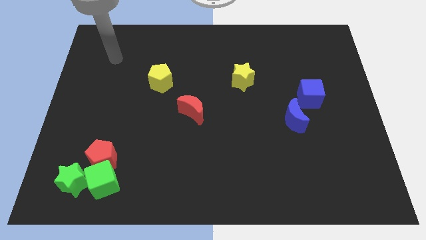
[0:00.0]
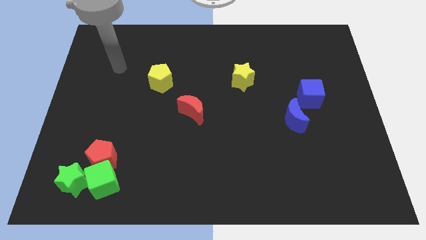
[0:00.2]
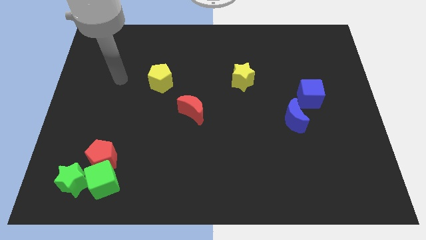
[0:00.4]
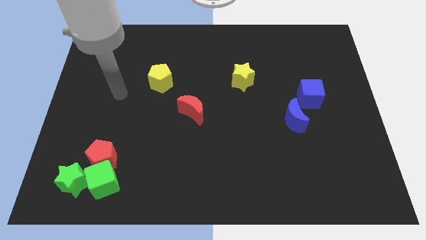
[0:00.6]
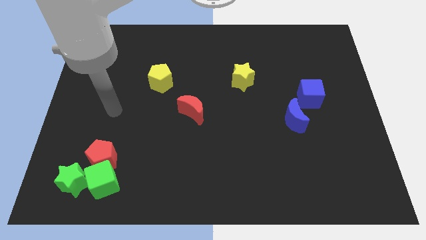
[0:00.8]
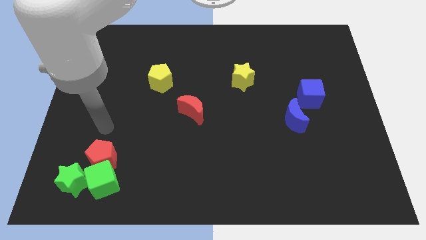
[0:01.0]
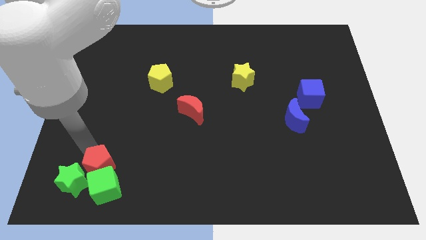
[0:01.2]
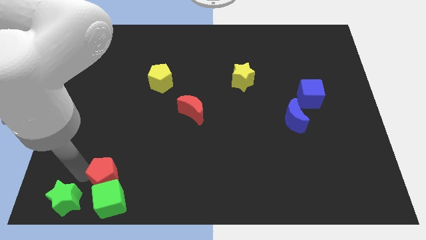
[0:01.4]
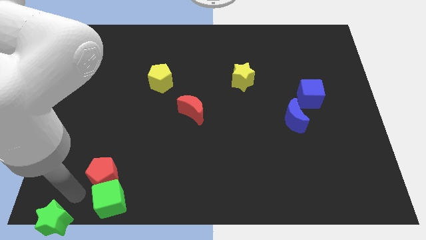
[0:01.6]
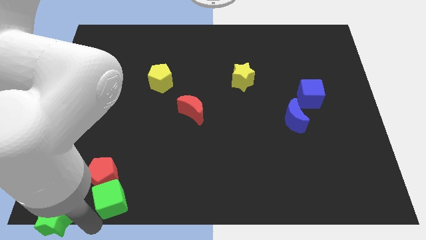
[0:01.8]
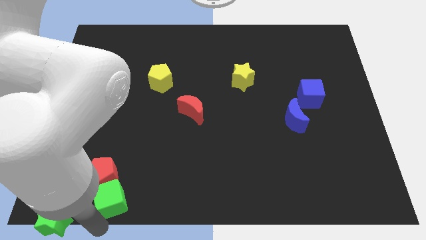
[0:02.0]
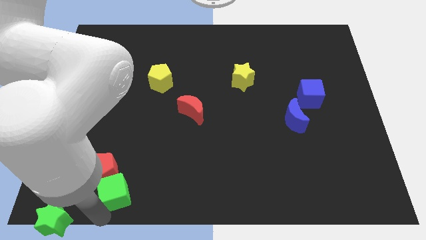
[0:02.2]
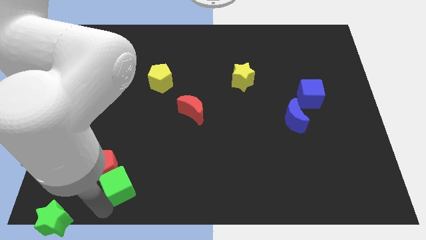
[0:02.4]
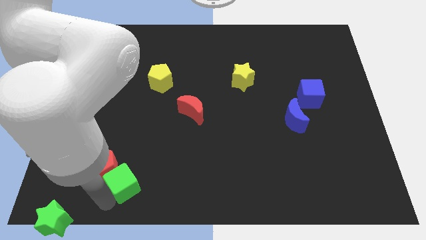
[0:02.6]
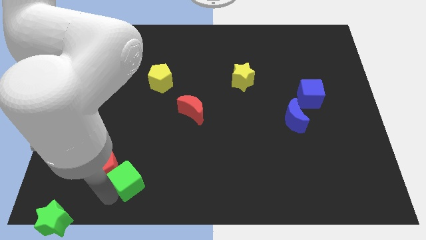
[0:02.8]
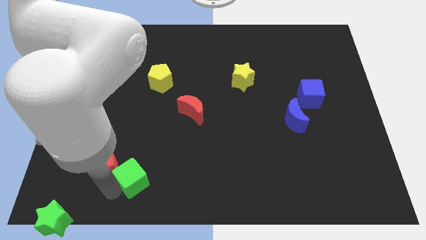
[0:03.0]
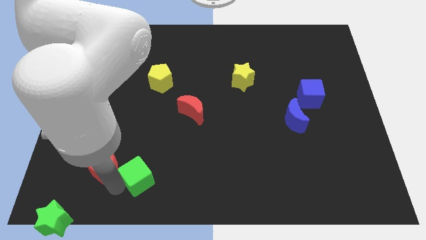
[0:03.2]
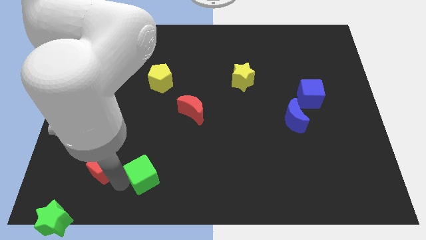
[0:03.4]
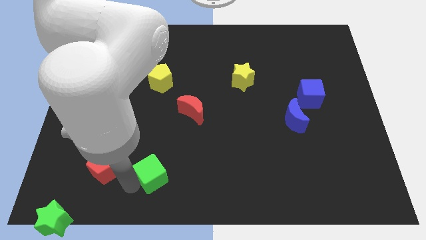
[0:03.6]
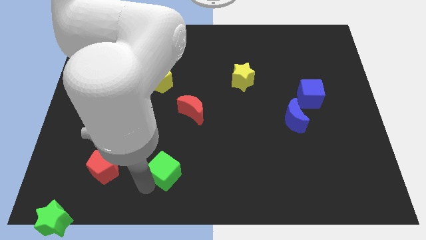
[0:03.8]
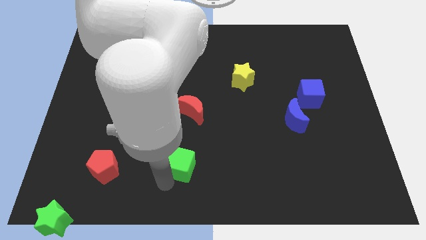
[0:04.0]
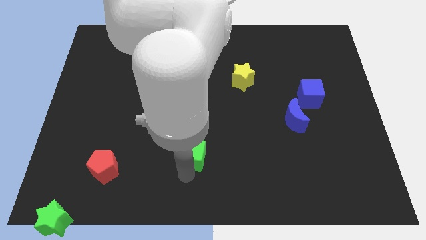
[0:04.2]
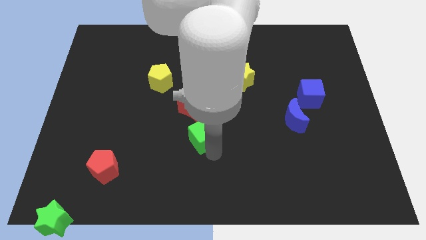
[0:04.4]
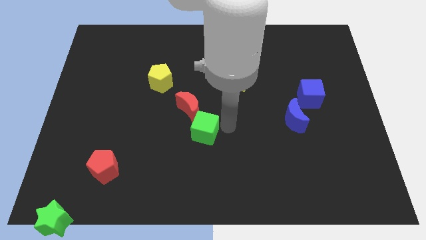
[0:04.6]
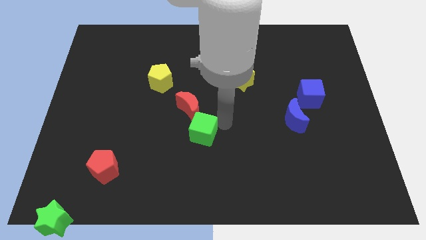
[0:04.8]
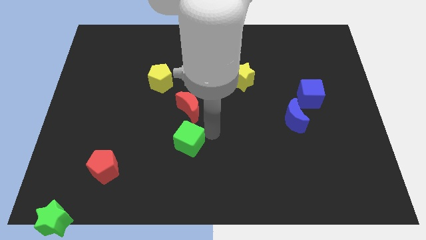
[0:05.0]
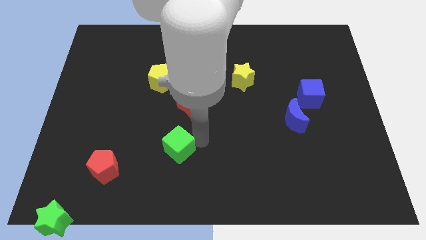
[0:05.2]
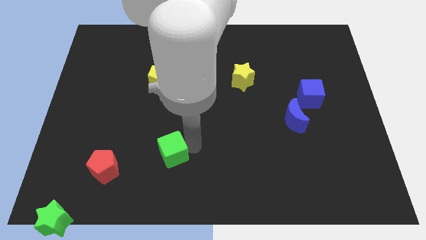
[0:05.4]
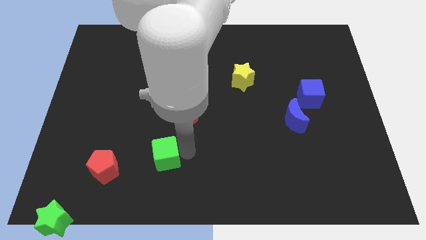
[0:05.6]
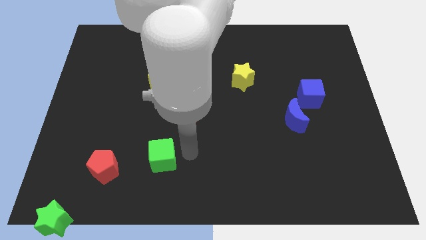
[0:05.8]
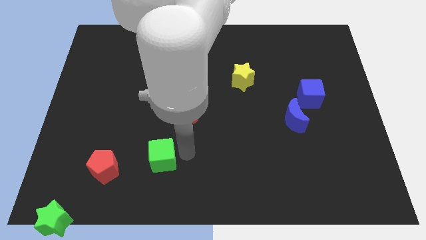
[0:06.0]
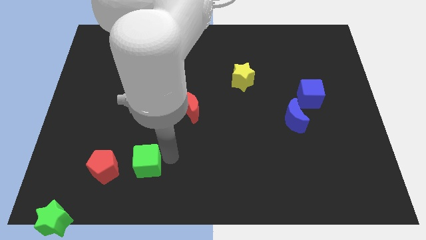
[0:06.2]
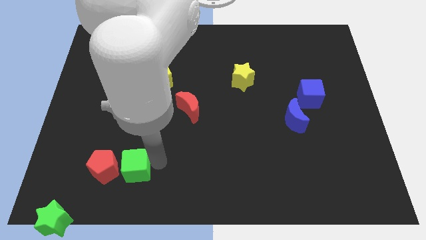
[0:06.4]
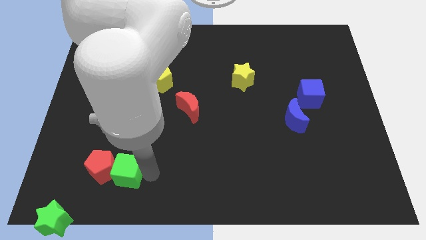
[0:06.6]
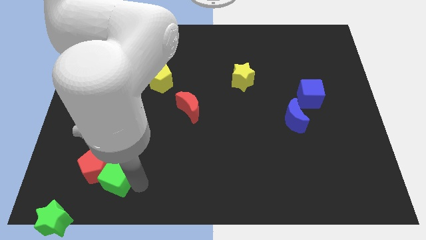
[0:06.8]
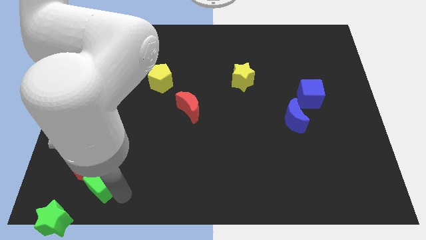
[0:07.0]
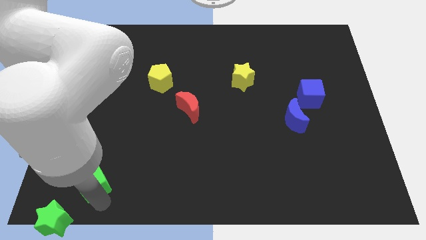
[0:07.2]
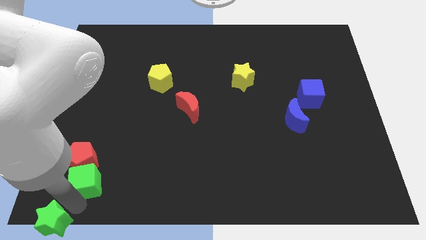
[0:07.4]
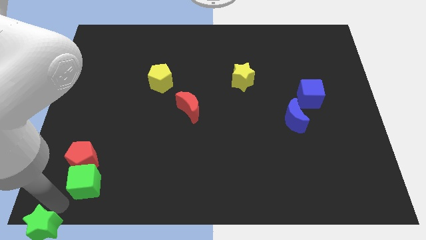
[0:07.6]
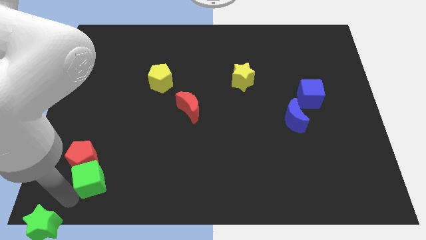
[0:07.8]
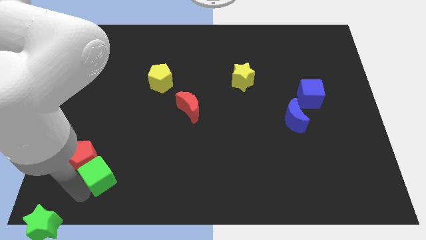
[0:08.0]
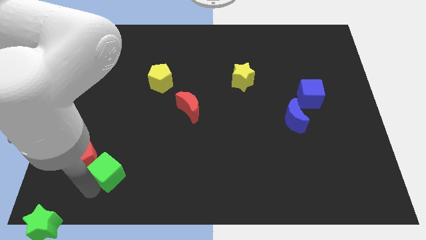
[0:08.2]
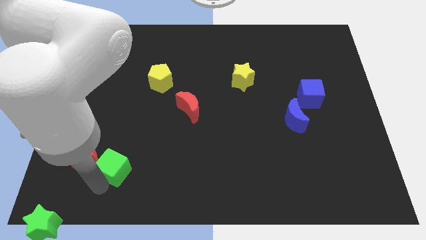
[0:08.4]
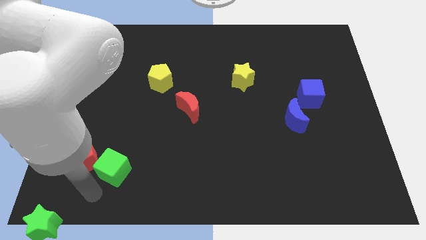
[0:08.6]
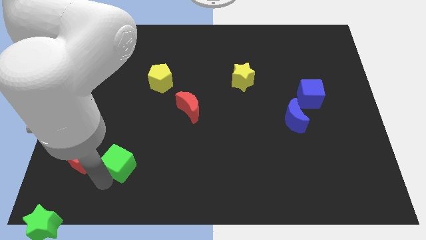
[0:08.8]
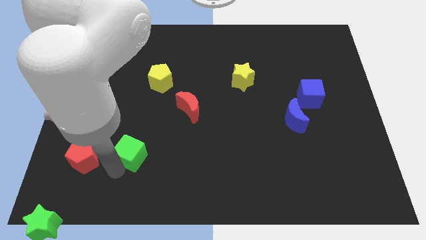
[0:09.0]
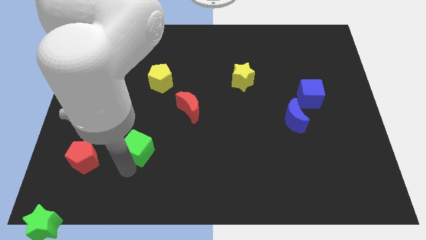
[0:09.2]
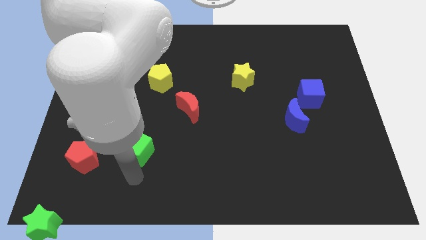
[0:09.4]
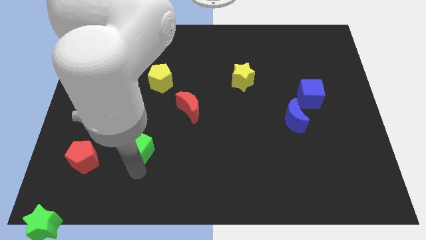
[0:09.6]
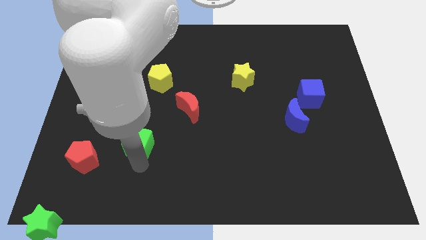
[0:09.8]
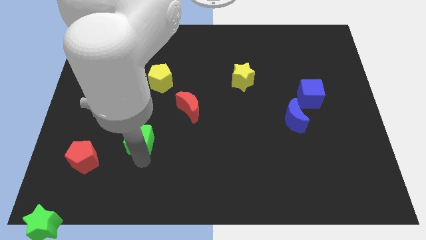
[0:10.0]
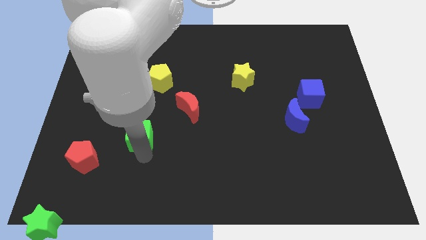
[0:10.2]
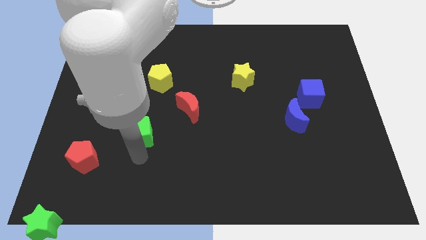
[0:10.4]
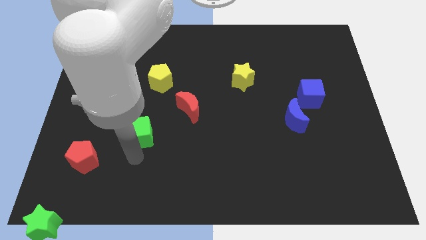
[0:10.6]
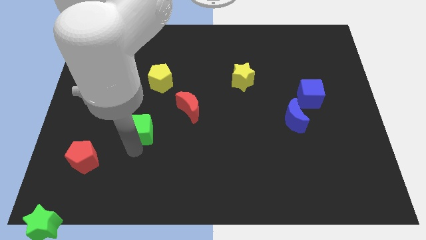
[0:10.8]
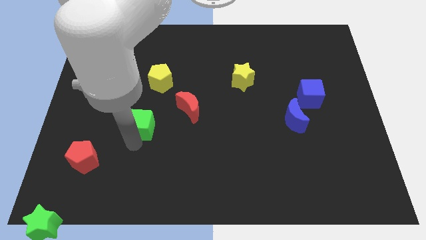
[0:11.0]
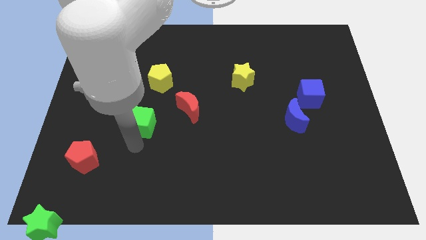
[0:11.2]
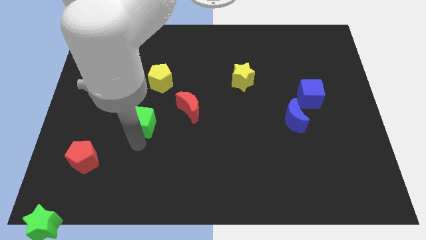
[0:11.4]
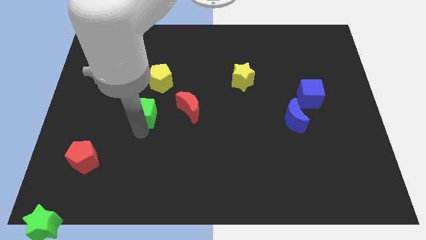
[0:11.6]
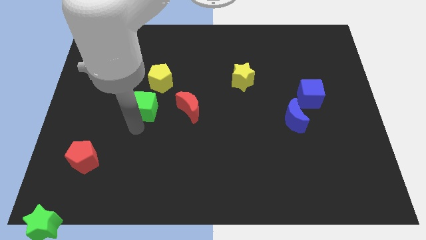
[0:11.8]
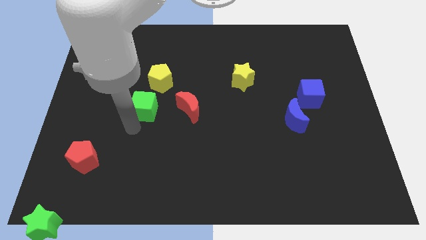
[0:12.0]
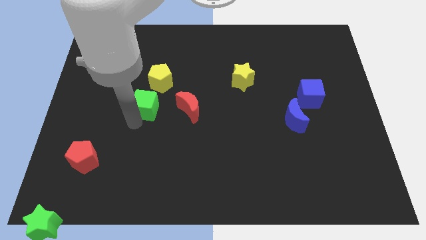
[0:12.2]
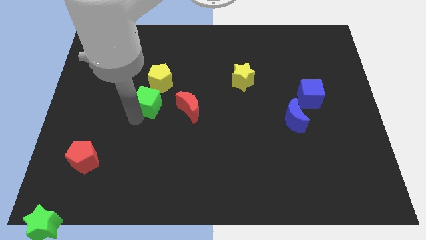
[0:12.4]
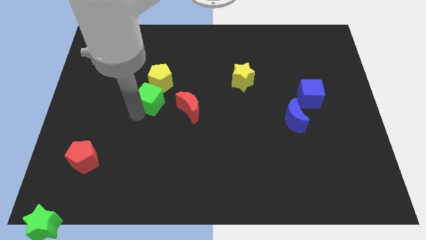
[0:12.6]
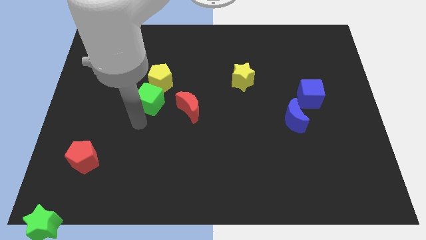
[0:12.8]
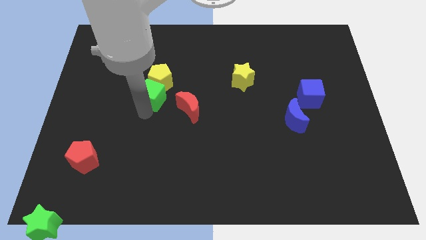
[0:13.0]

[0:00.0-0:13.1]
move the green cube next to the yellow pentagon

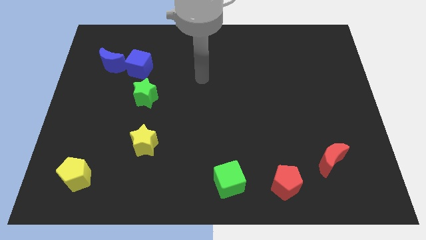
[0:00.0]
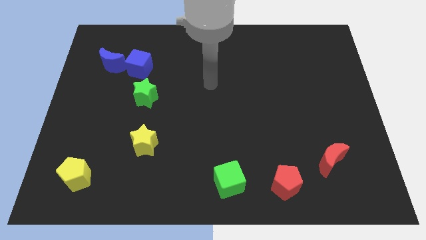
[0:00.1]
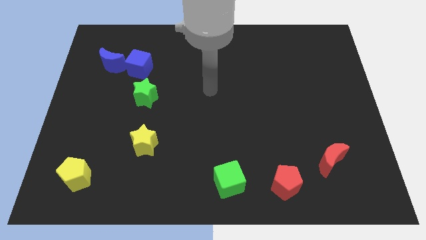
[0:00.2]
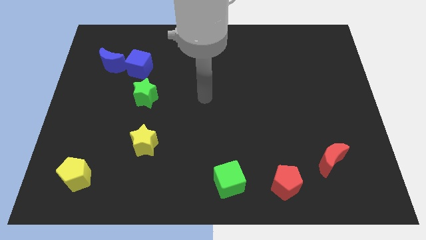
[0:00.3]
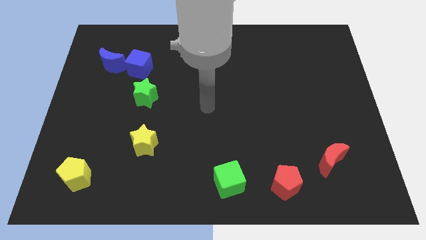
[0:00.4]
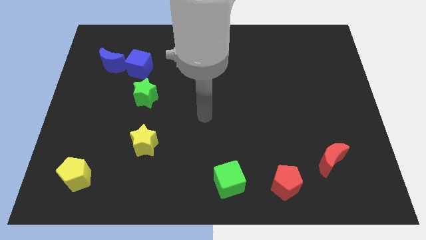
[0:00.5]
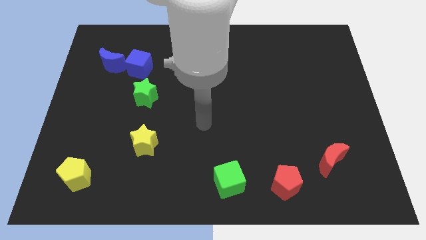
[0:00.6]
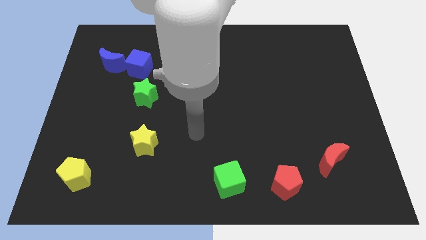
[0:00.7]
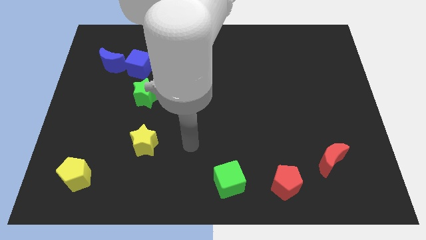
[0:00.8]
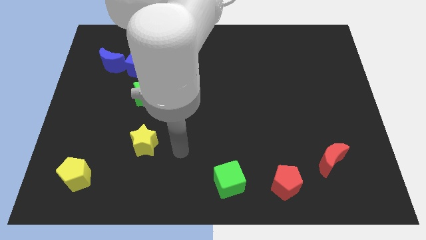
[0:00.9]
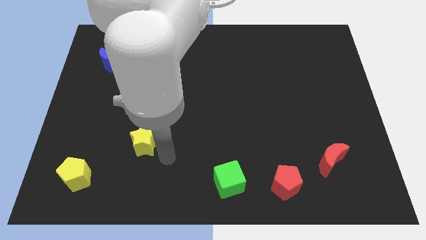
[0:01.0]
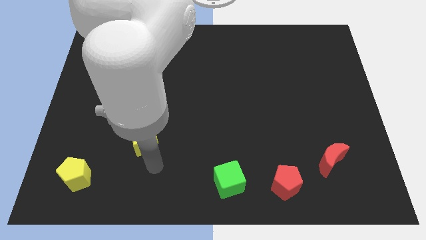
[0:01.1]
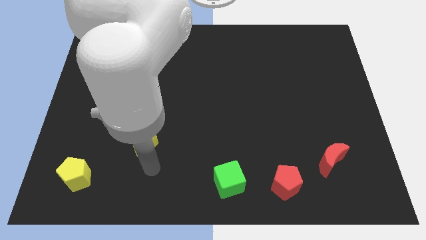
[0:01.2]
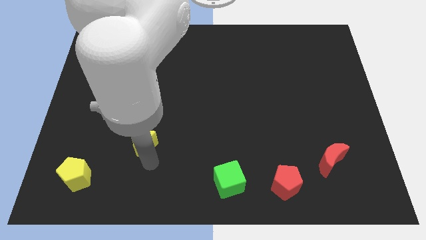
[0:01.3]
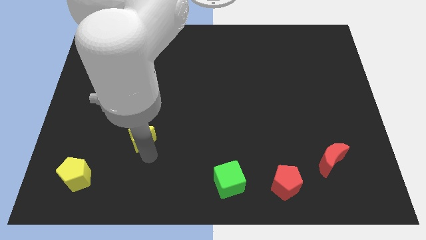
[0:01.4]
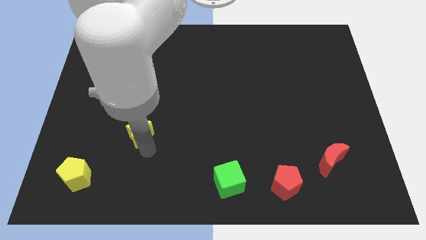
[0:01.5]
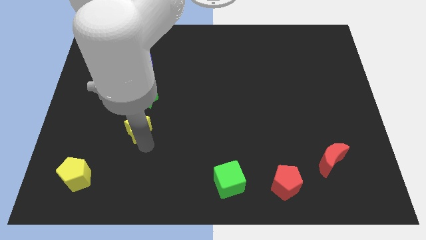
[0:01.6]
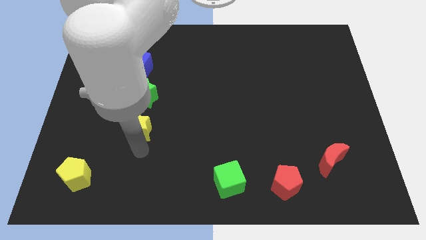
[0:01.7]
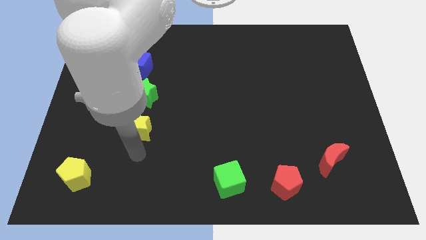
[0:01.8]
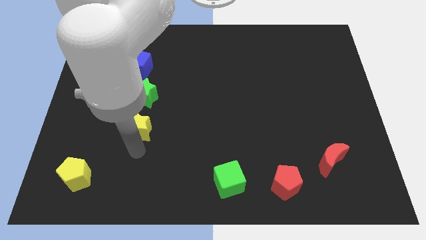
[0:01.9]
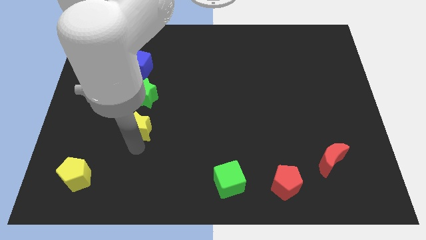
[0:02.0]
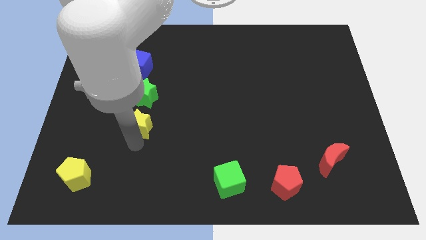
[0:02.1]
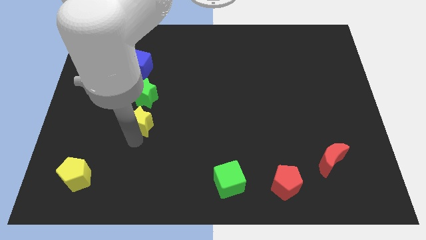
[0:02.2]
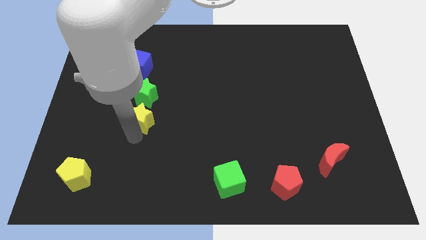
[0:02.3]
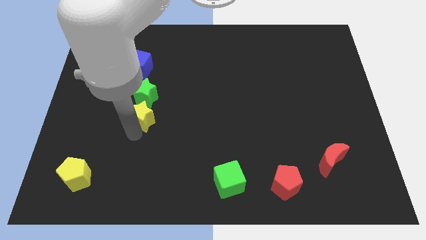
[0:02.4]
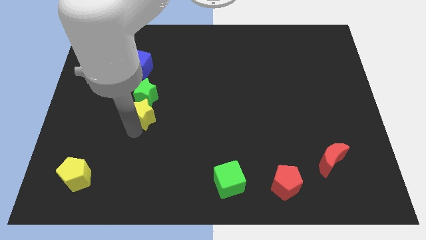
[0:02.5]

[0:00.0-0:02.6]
push the yellow star to the green star
